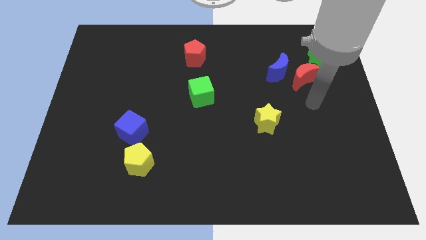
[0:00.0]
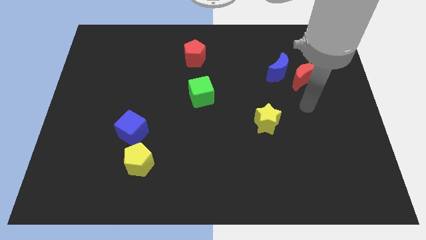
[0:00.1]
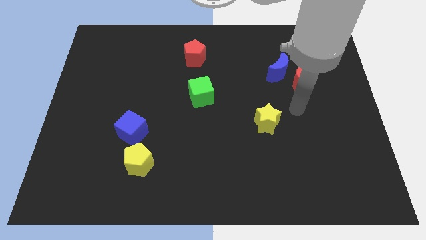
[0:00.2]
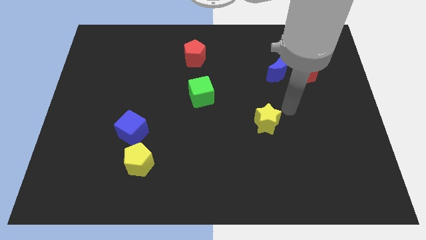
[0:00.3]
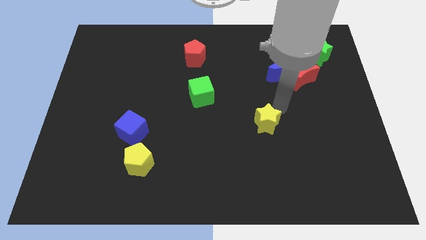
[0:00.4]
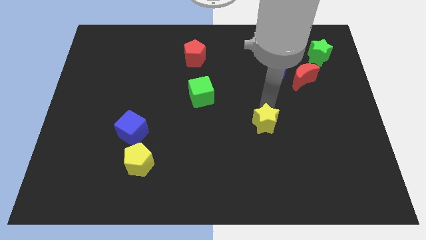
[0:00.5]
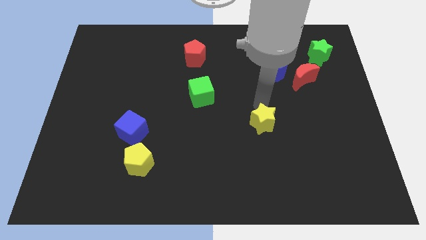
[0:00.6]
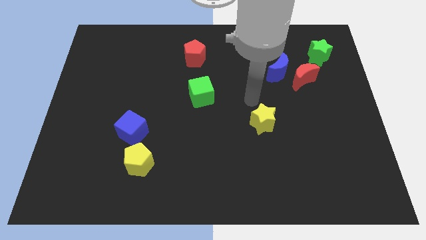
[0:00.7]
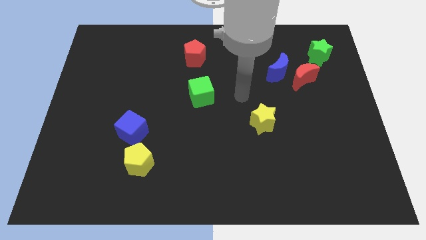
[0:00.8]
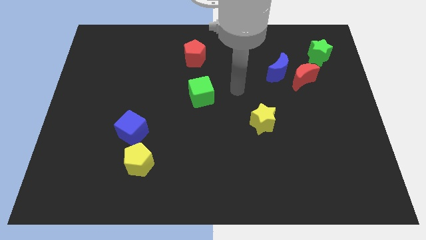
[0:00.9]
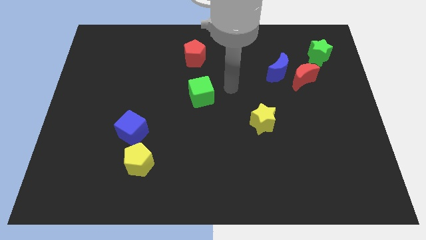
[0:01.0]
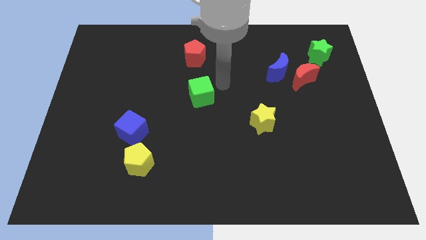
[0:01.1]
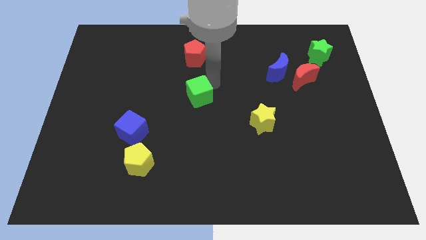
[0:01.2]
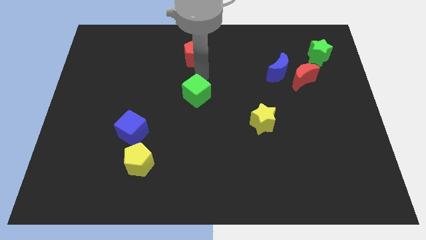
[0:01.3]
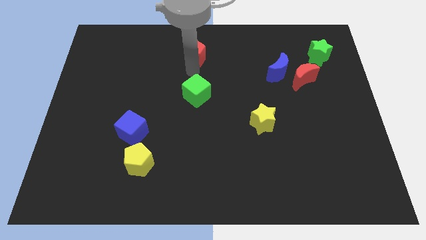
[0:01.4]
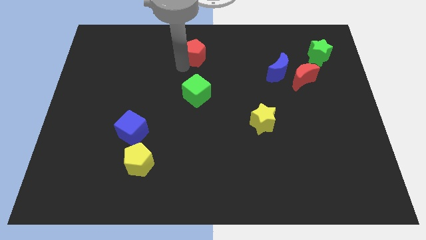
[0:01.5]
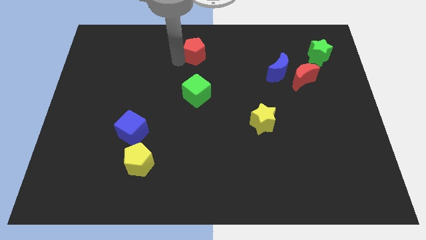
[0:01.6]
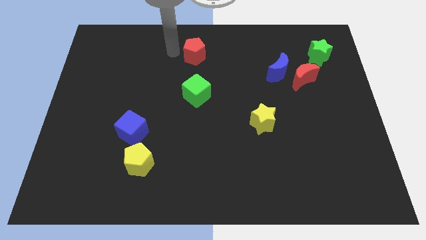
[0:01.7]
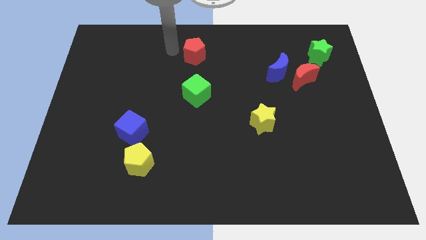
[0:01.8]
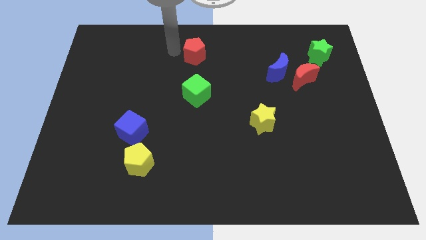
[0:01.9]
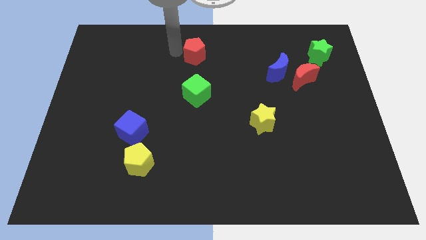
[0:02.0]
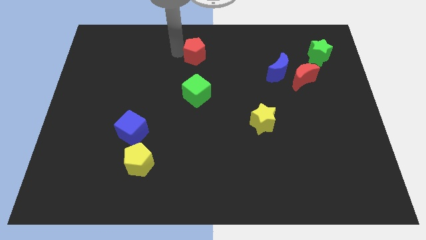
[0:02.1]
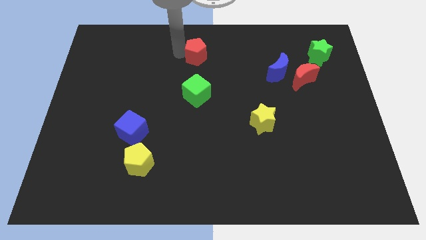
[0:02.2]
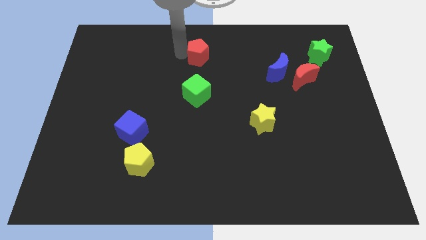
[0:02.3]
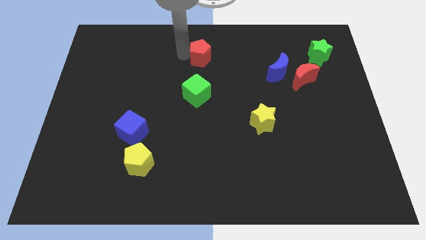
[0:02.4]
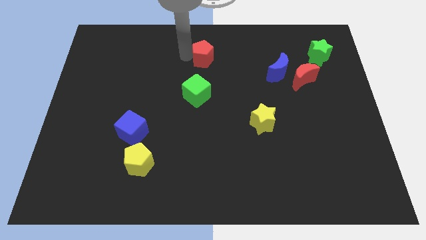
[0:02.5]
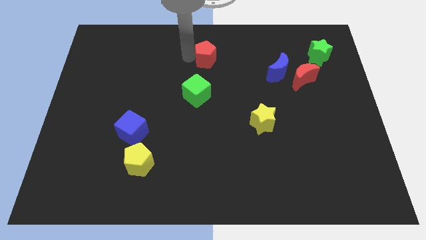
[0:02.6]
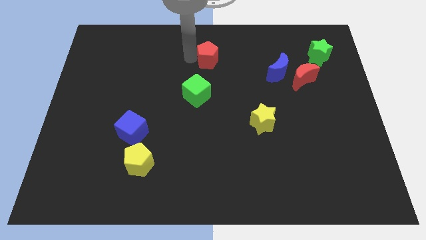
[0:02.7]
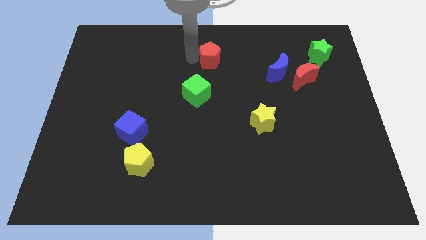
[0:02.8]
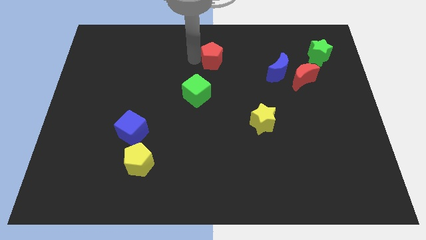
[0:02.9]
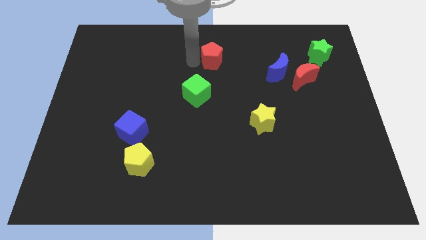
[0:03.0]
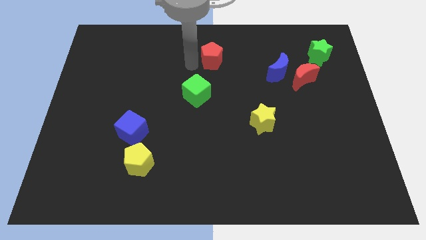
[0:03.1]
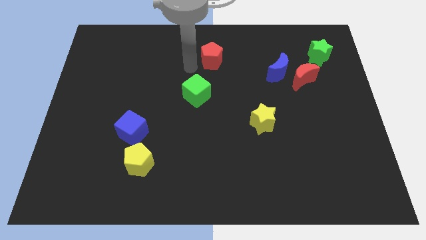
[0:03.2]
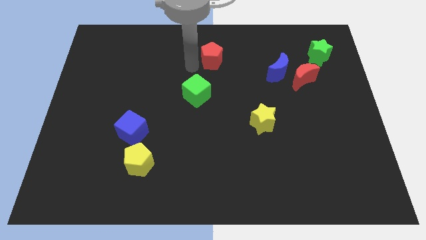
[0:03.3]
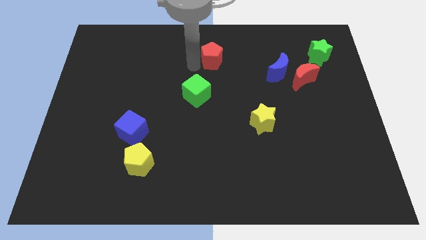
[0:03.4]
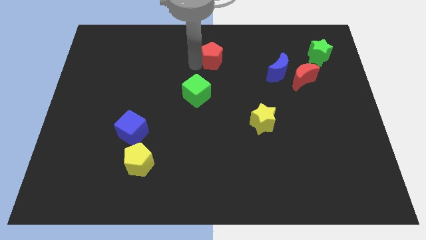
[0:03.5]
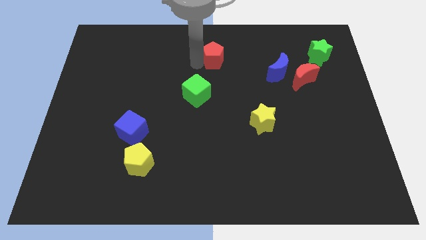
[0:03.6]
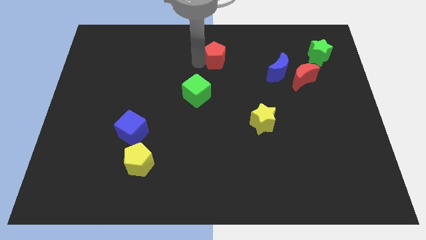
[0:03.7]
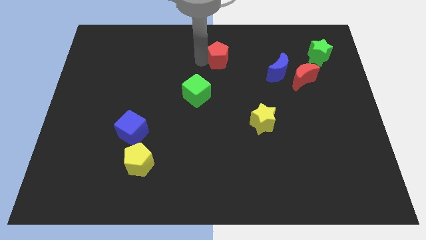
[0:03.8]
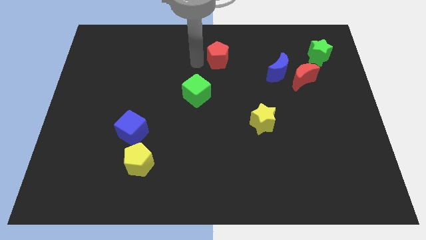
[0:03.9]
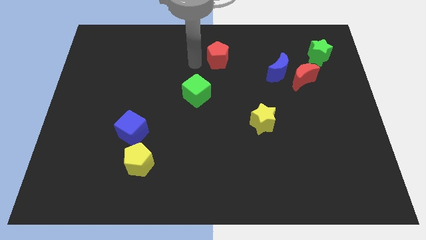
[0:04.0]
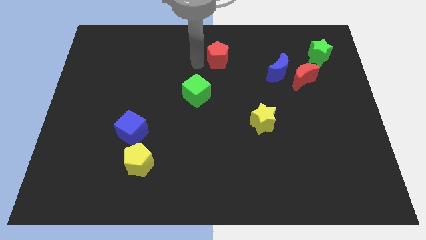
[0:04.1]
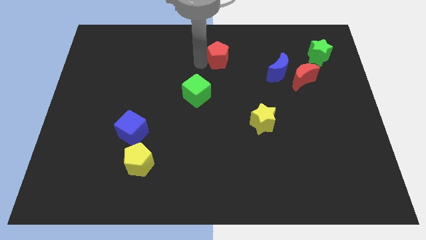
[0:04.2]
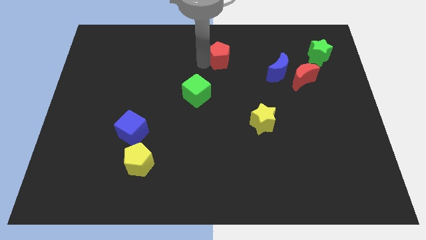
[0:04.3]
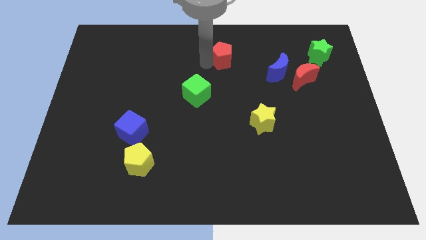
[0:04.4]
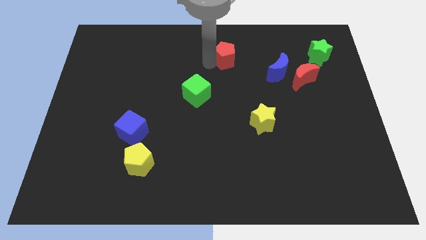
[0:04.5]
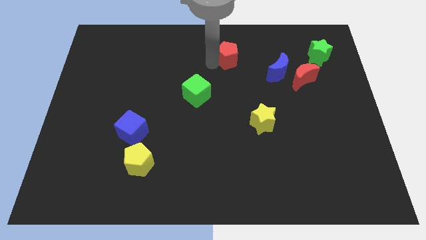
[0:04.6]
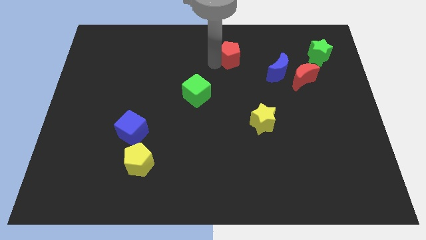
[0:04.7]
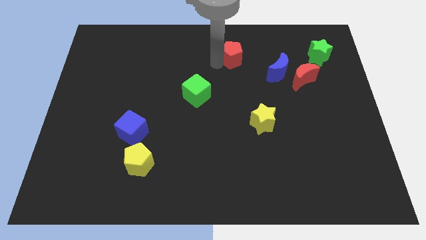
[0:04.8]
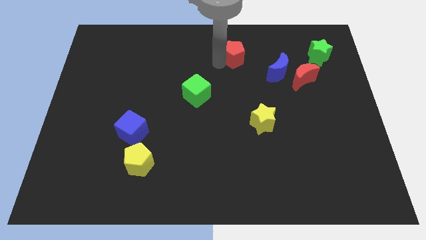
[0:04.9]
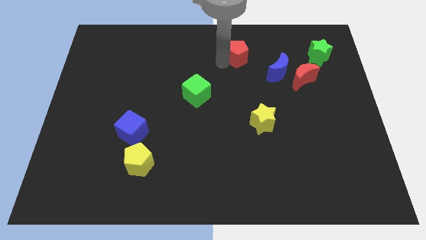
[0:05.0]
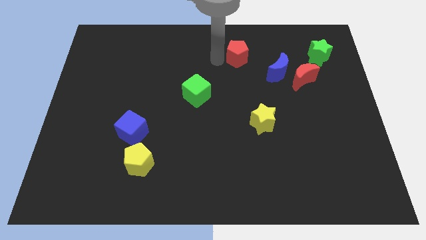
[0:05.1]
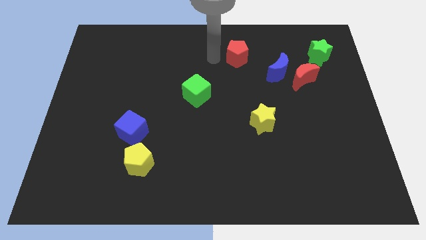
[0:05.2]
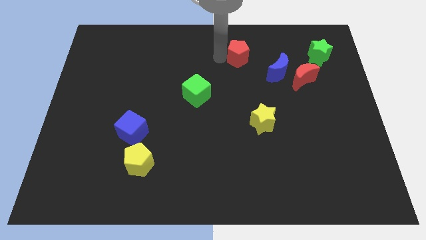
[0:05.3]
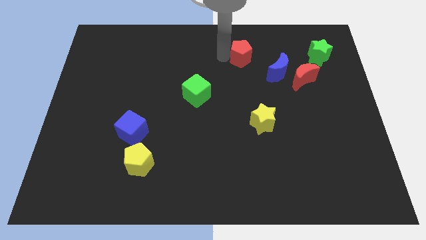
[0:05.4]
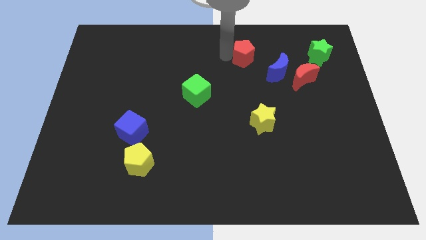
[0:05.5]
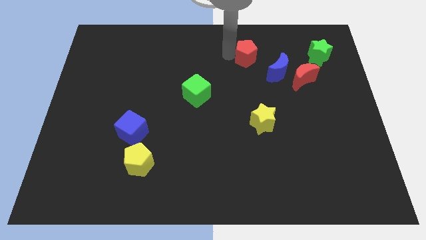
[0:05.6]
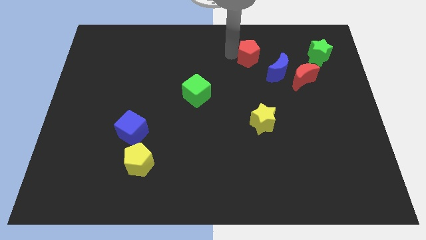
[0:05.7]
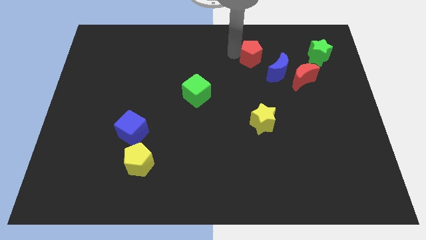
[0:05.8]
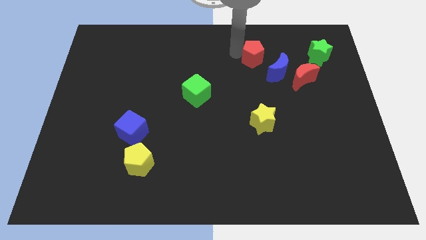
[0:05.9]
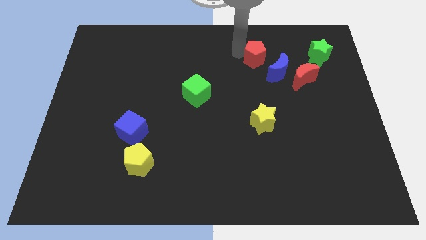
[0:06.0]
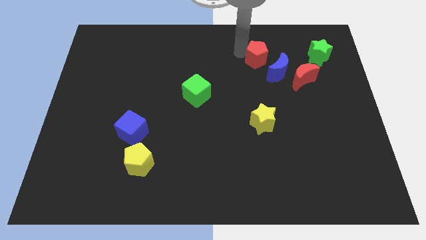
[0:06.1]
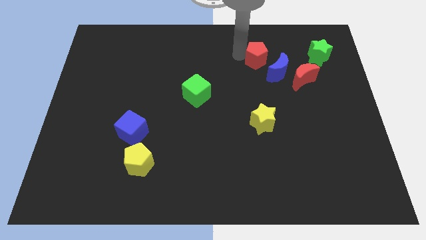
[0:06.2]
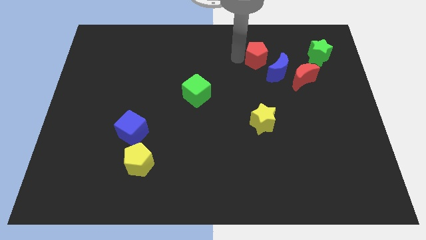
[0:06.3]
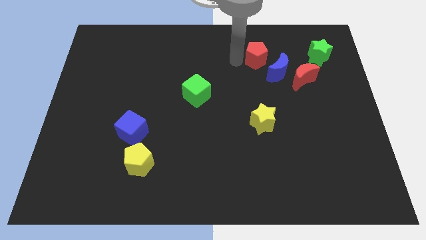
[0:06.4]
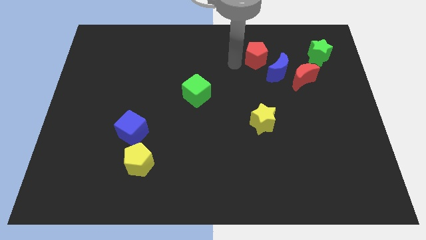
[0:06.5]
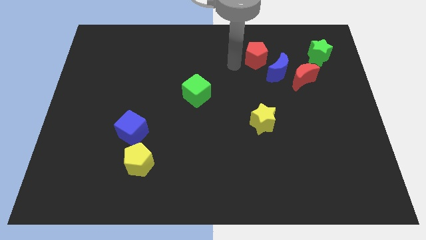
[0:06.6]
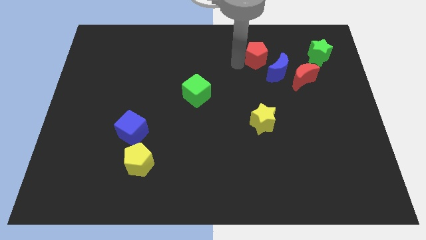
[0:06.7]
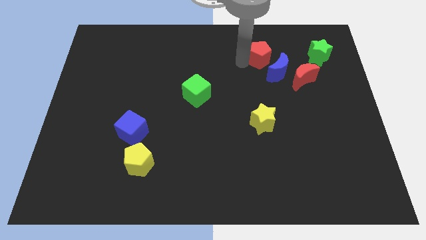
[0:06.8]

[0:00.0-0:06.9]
move the red pentagon diagonally up and to the left of the red moon
